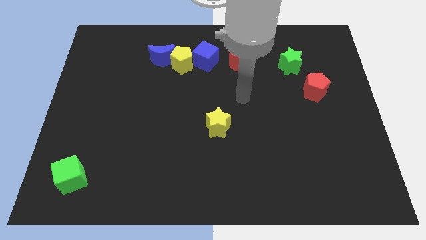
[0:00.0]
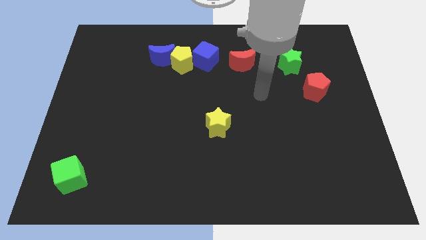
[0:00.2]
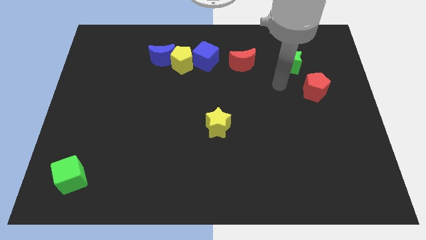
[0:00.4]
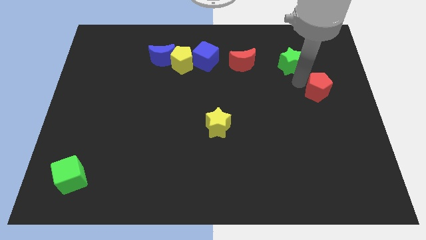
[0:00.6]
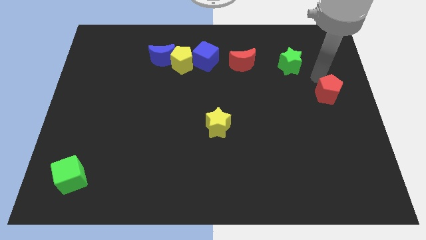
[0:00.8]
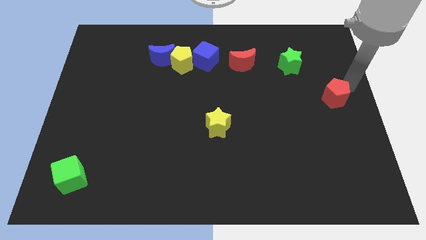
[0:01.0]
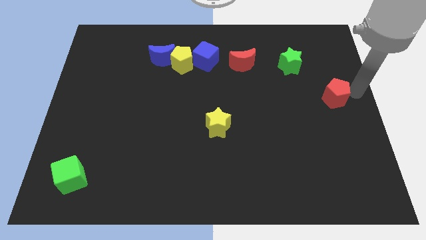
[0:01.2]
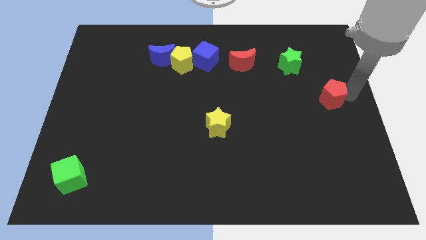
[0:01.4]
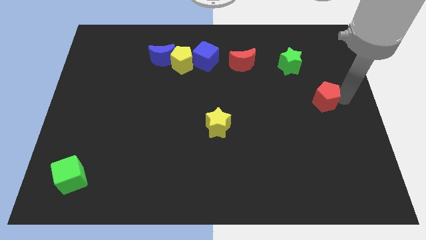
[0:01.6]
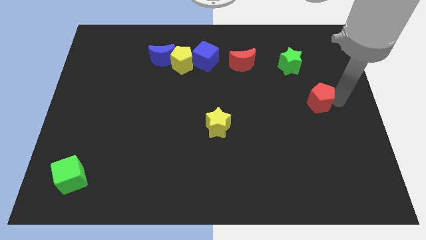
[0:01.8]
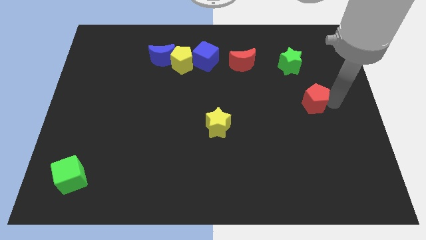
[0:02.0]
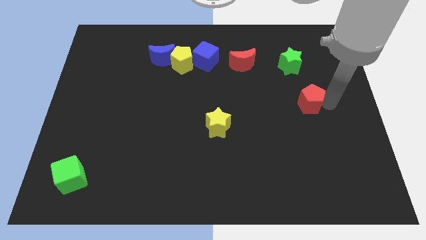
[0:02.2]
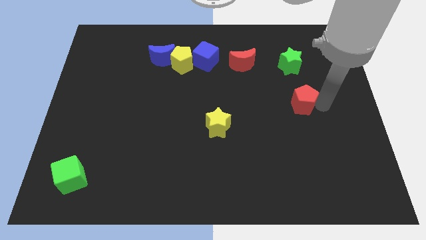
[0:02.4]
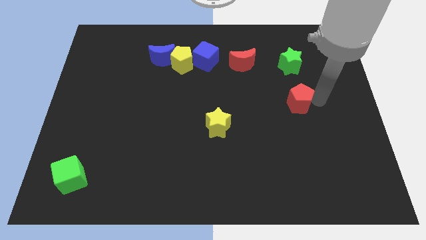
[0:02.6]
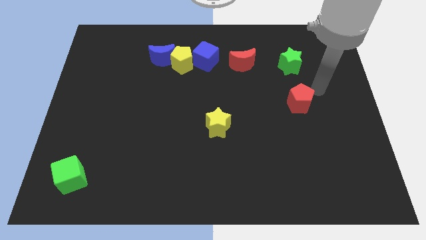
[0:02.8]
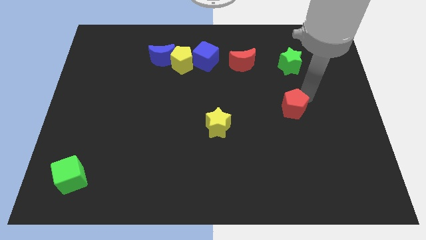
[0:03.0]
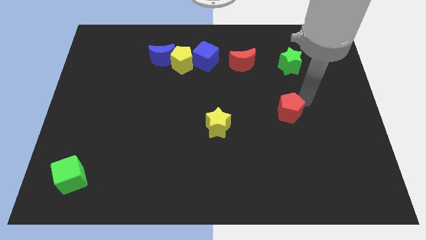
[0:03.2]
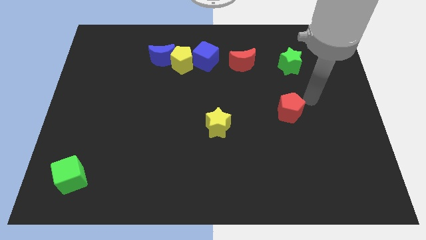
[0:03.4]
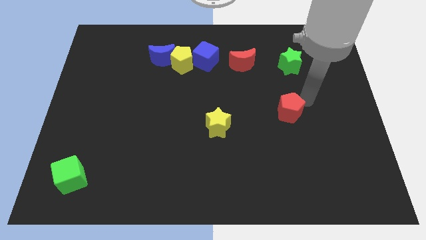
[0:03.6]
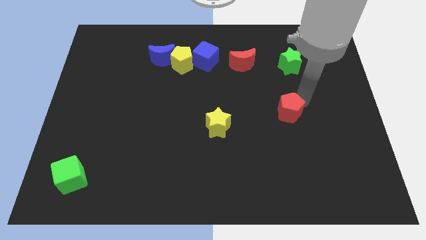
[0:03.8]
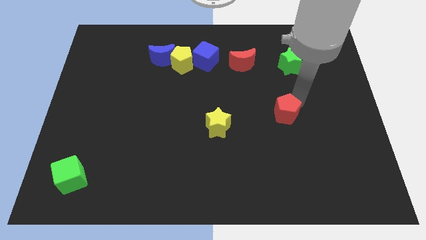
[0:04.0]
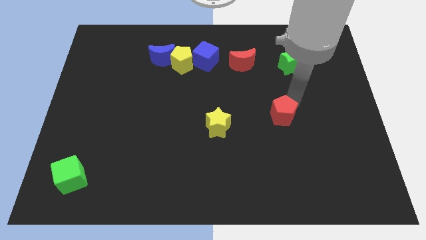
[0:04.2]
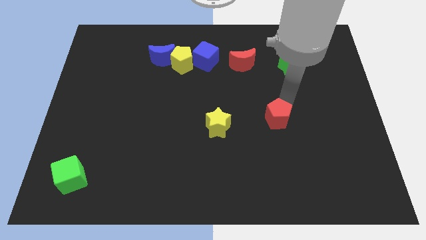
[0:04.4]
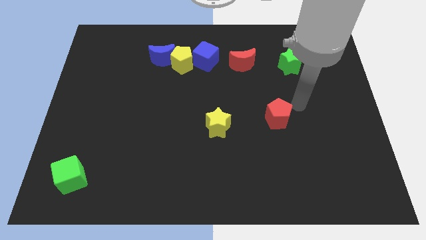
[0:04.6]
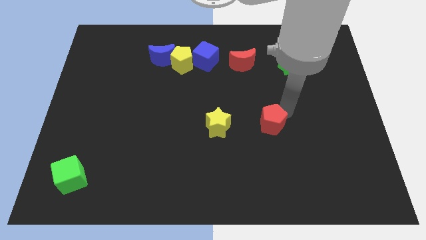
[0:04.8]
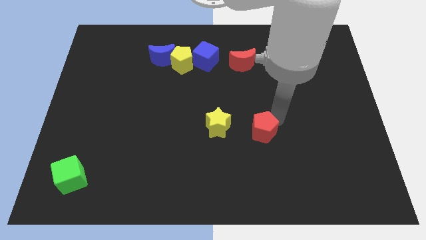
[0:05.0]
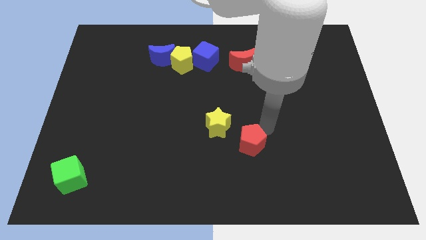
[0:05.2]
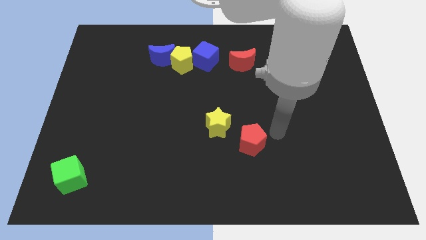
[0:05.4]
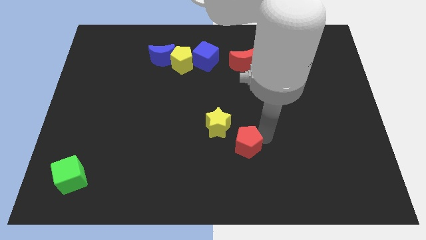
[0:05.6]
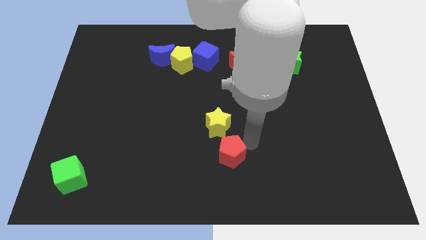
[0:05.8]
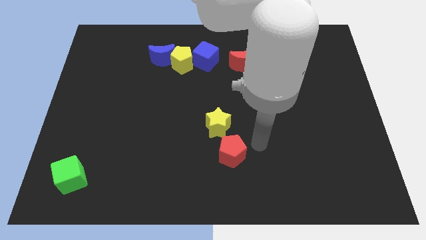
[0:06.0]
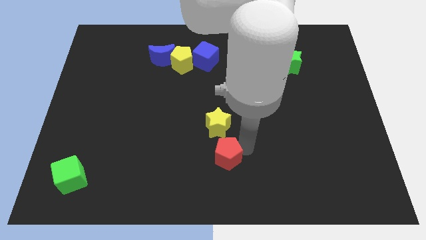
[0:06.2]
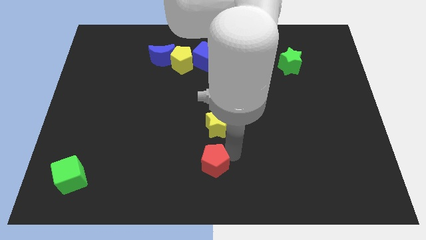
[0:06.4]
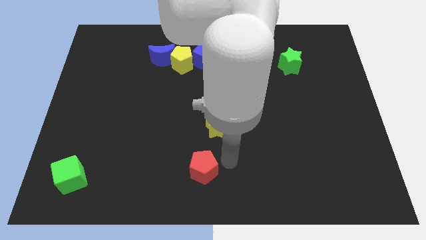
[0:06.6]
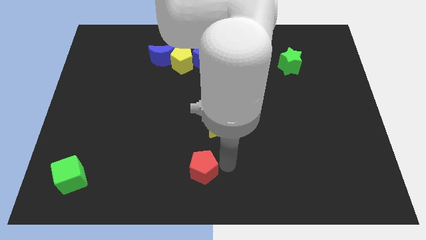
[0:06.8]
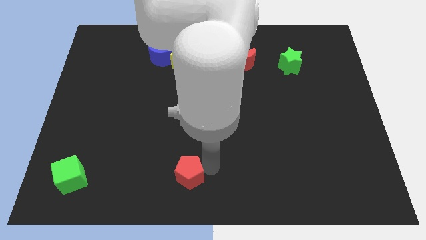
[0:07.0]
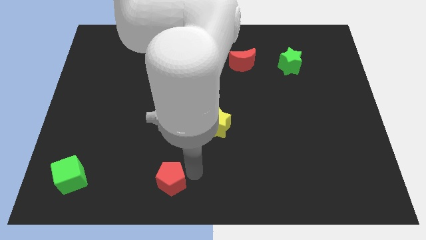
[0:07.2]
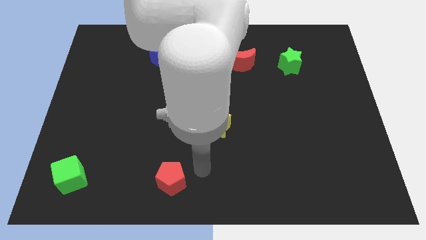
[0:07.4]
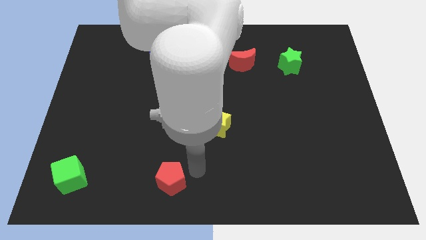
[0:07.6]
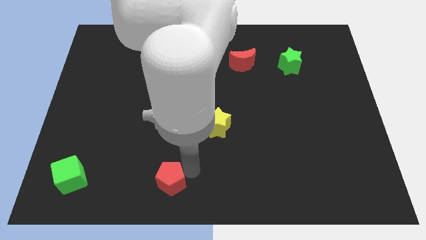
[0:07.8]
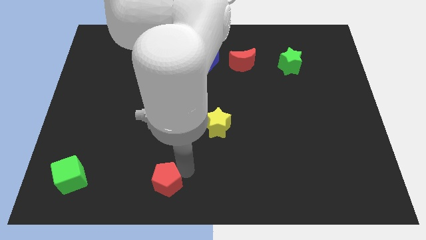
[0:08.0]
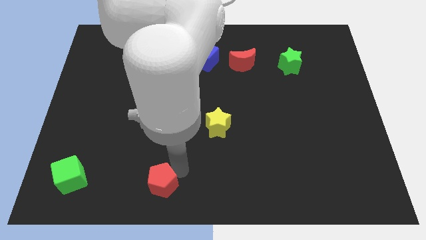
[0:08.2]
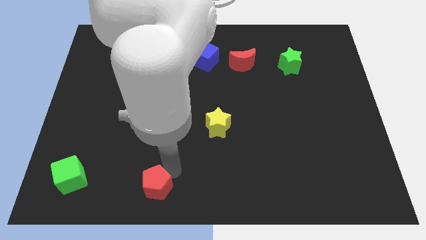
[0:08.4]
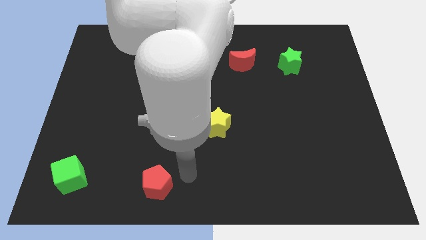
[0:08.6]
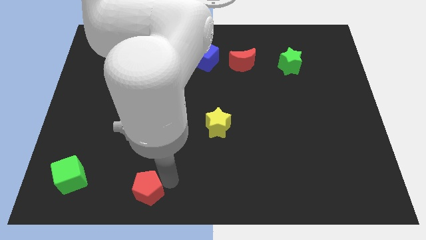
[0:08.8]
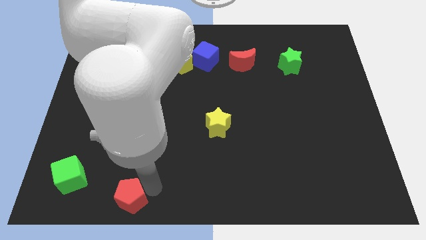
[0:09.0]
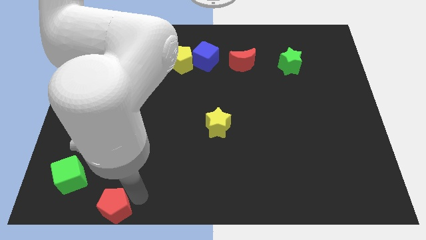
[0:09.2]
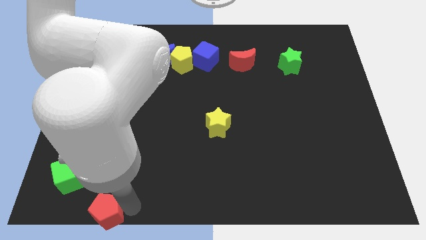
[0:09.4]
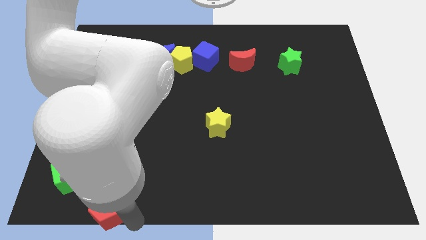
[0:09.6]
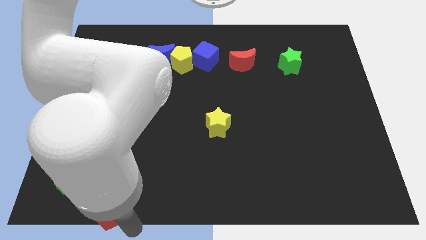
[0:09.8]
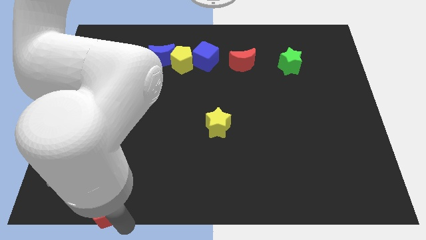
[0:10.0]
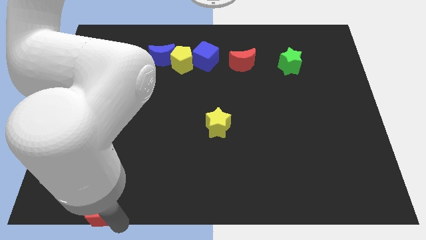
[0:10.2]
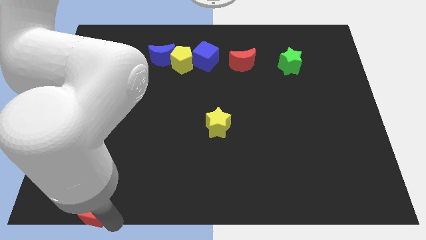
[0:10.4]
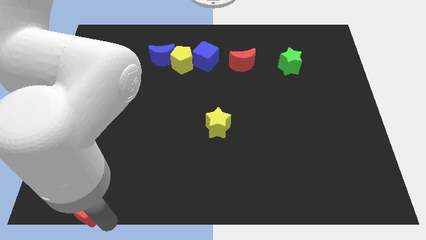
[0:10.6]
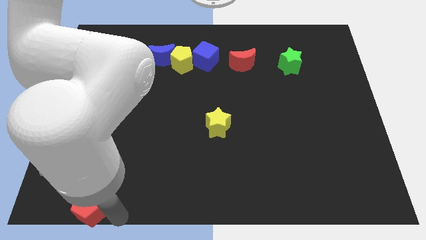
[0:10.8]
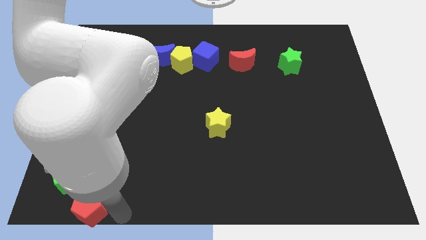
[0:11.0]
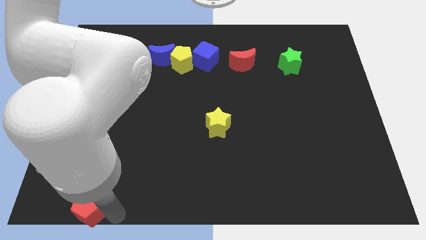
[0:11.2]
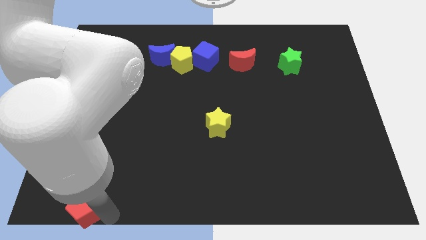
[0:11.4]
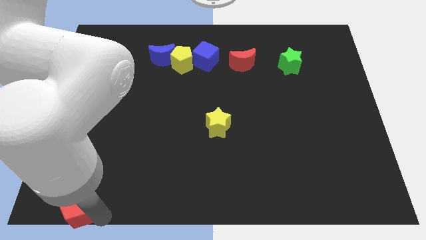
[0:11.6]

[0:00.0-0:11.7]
slide the red pentagon to the bottom left corner
